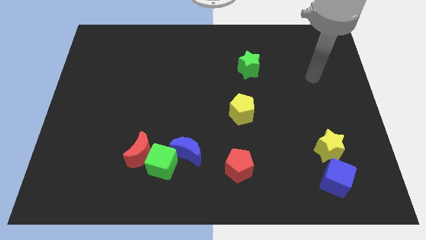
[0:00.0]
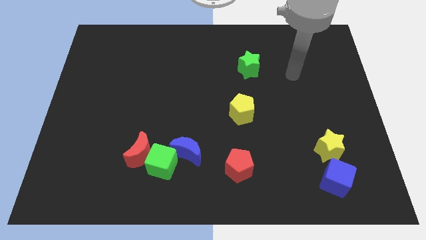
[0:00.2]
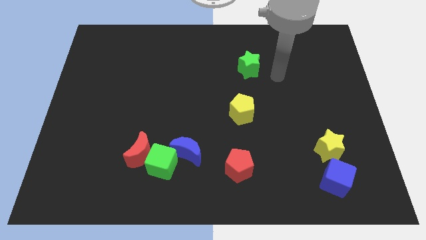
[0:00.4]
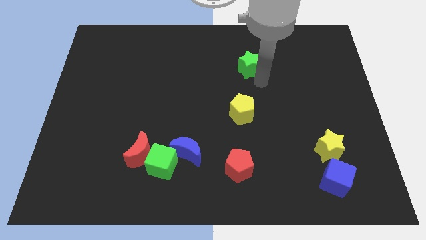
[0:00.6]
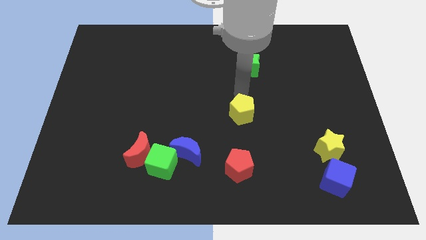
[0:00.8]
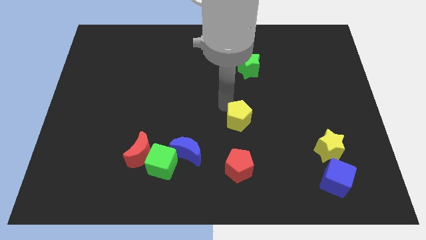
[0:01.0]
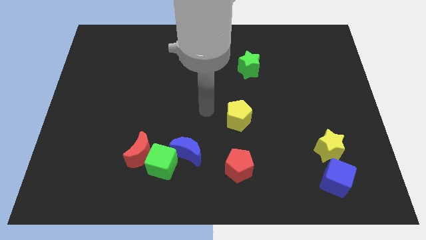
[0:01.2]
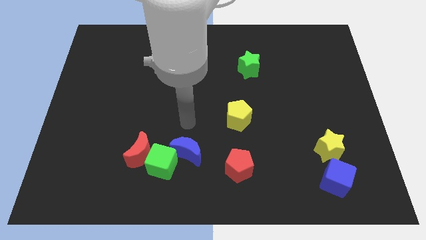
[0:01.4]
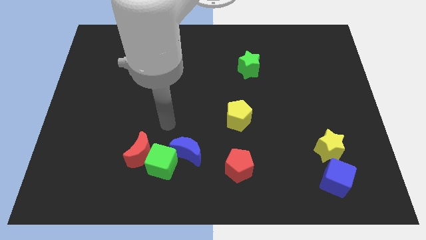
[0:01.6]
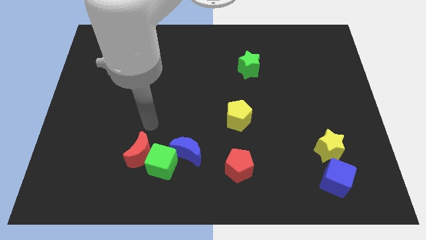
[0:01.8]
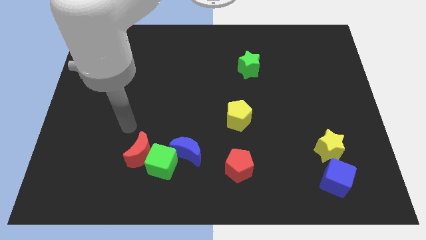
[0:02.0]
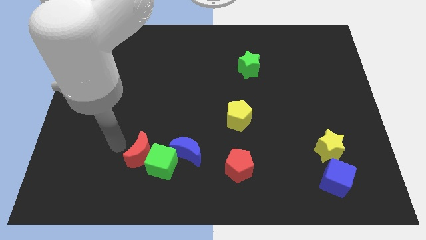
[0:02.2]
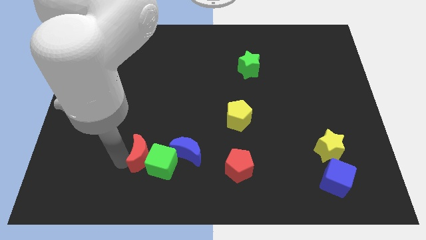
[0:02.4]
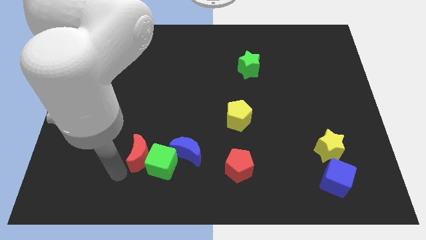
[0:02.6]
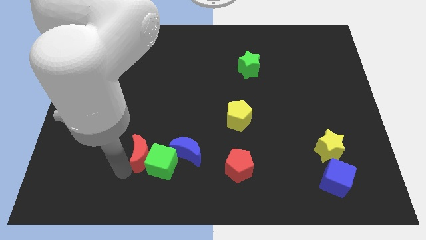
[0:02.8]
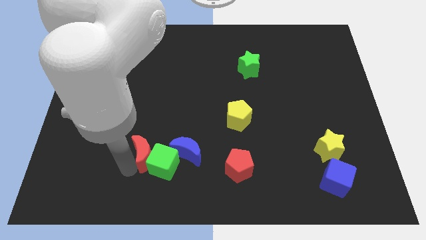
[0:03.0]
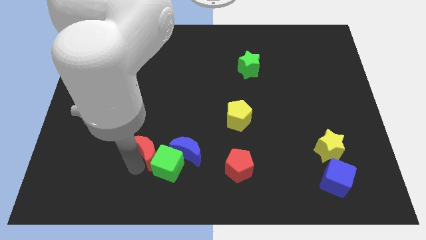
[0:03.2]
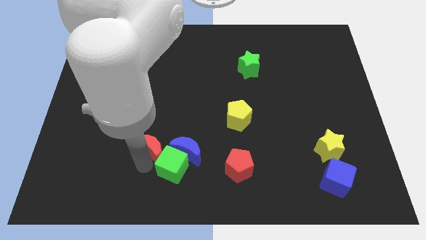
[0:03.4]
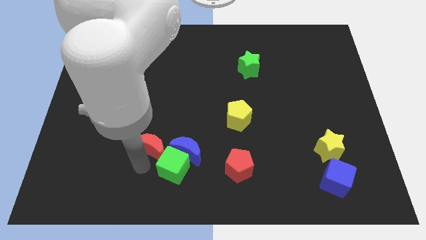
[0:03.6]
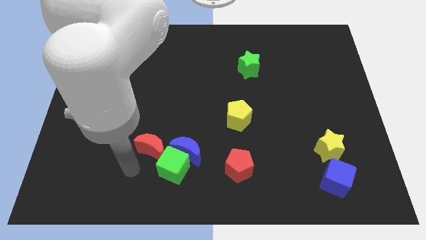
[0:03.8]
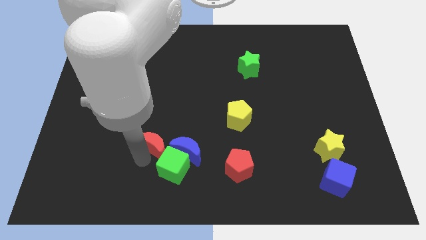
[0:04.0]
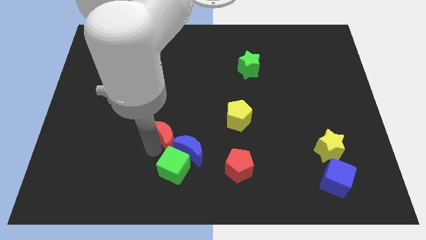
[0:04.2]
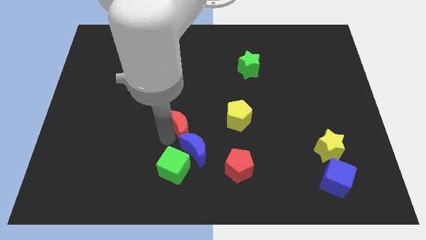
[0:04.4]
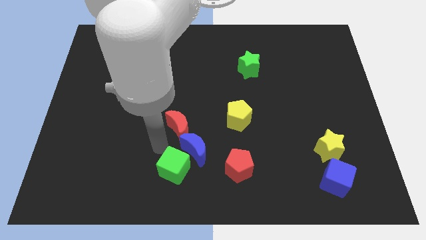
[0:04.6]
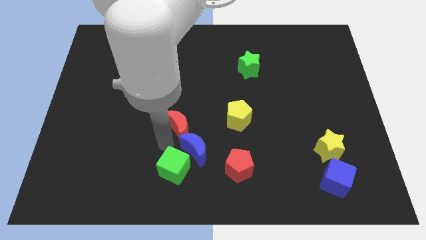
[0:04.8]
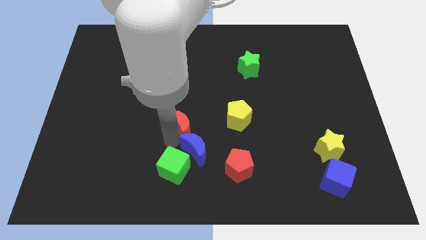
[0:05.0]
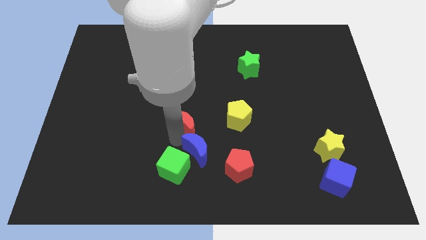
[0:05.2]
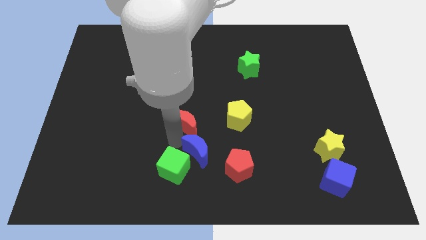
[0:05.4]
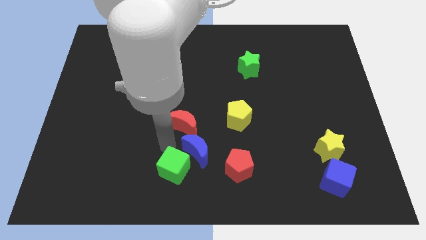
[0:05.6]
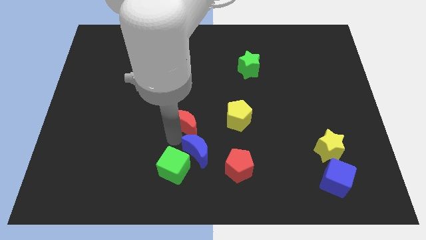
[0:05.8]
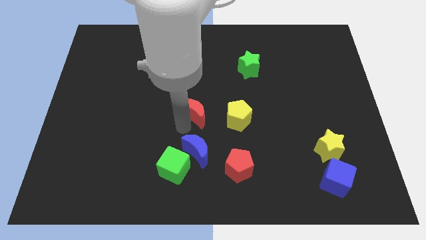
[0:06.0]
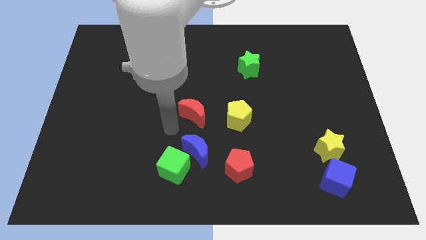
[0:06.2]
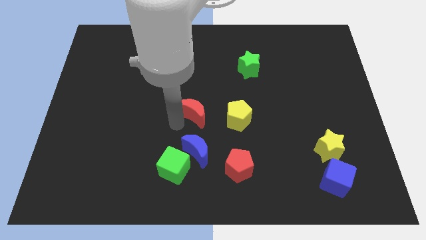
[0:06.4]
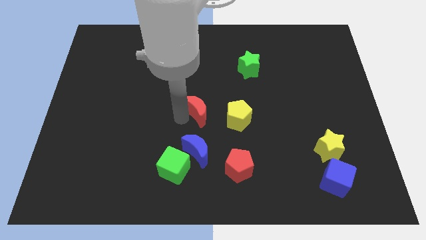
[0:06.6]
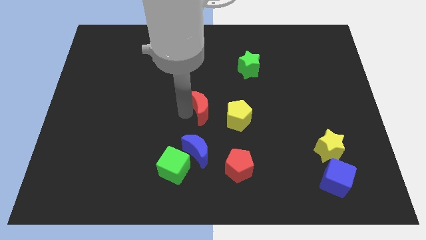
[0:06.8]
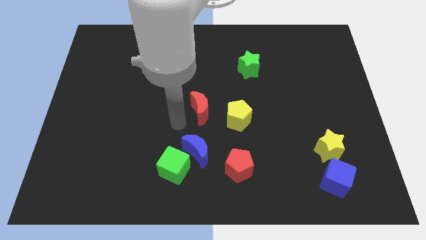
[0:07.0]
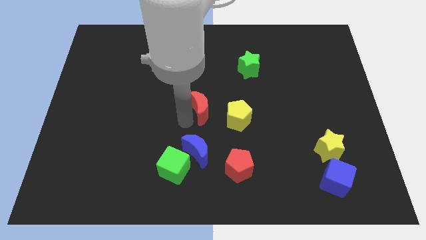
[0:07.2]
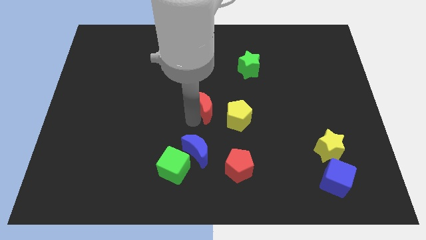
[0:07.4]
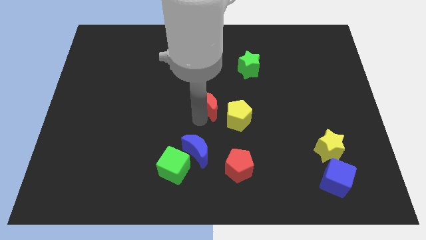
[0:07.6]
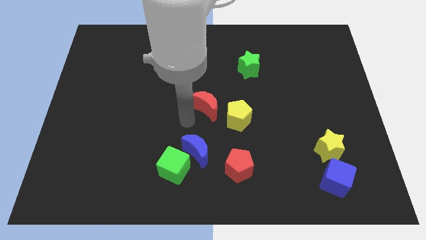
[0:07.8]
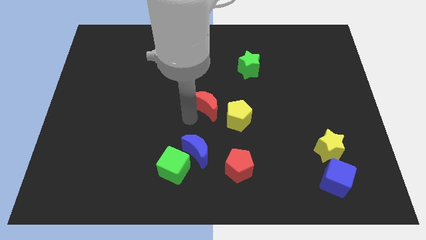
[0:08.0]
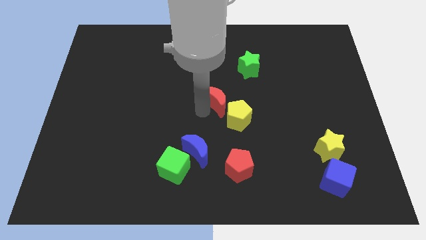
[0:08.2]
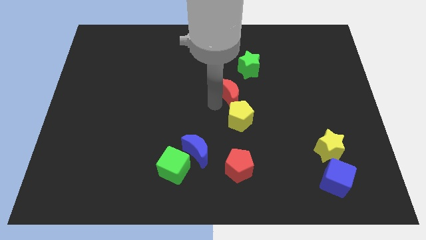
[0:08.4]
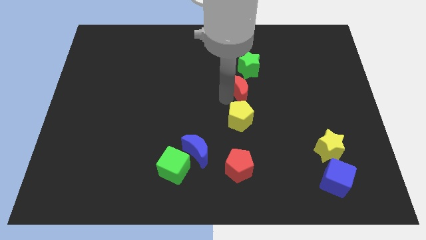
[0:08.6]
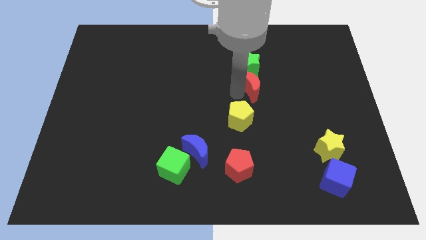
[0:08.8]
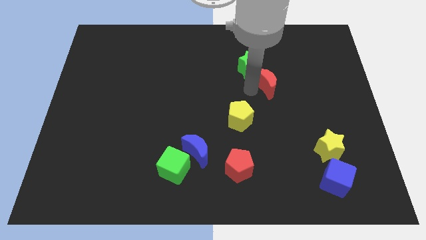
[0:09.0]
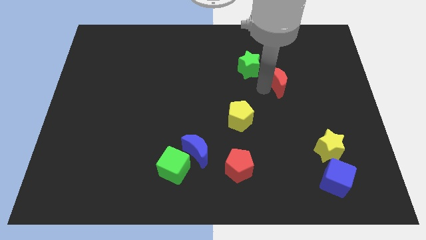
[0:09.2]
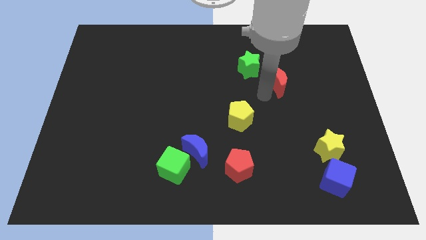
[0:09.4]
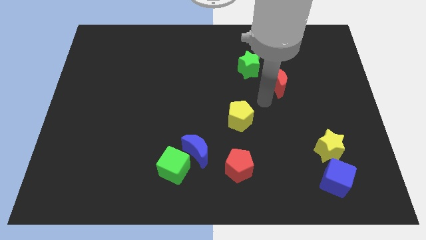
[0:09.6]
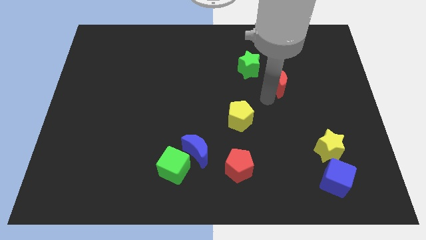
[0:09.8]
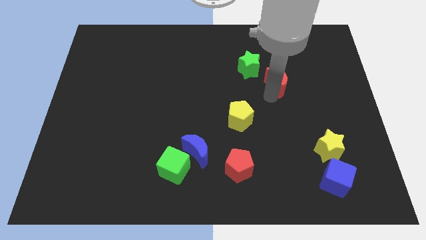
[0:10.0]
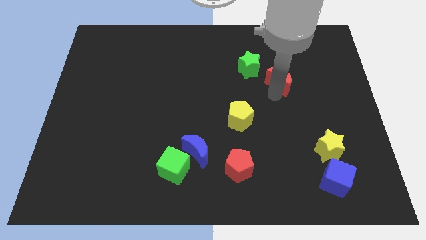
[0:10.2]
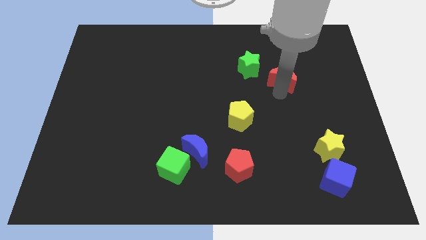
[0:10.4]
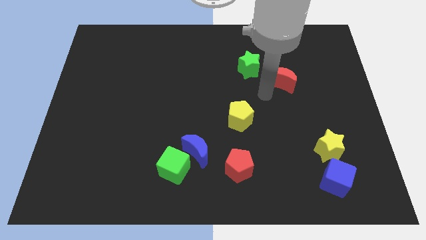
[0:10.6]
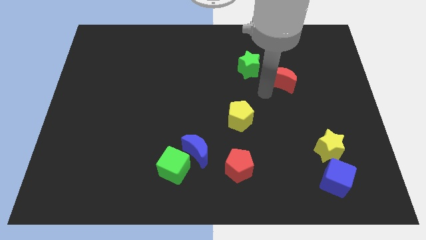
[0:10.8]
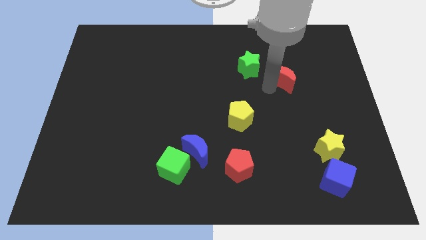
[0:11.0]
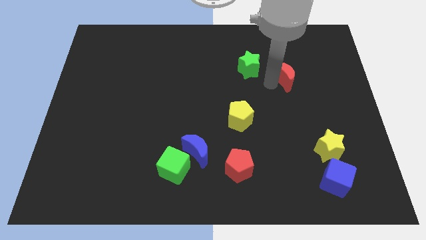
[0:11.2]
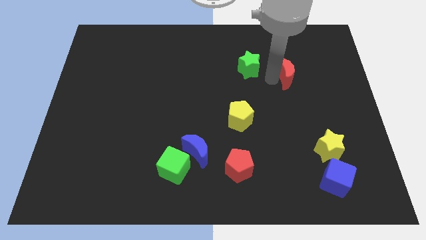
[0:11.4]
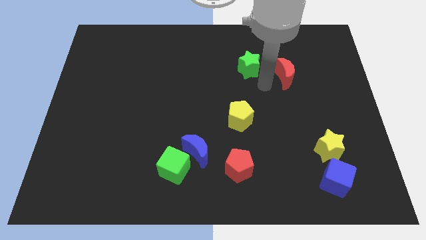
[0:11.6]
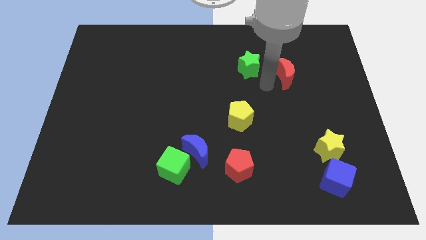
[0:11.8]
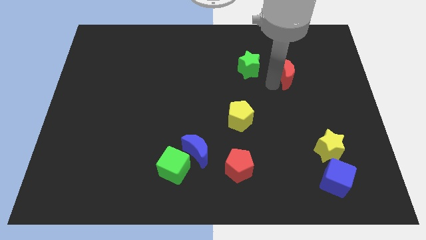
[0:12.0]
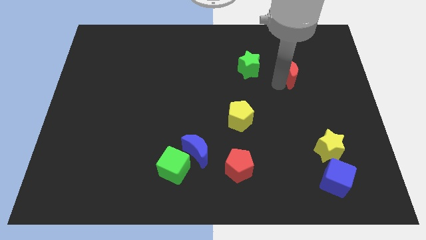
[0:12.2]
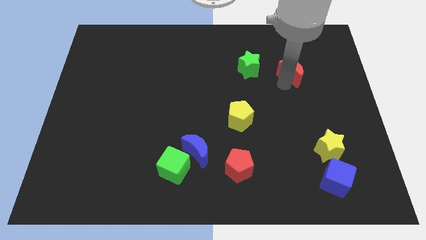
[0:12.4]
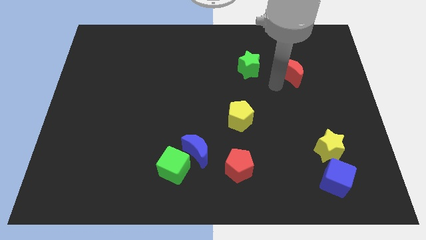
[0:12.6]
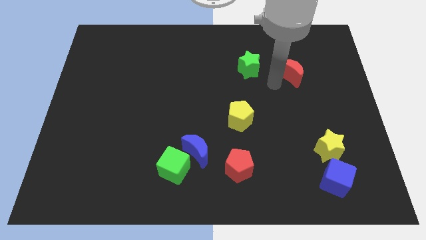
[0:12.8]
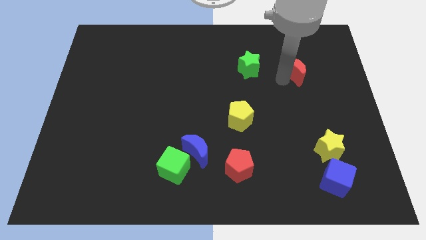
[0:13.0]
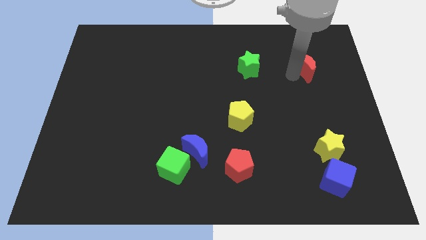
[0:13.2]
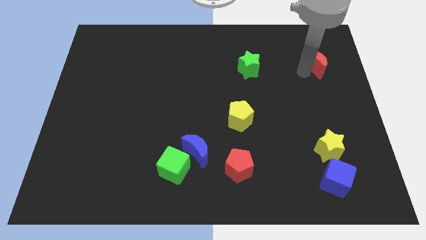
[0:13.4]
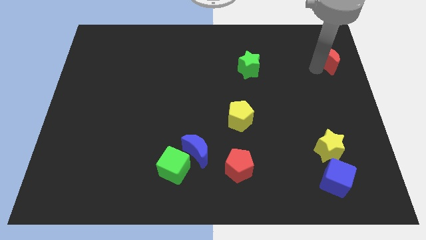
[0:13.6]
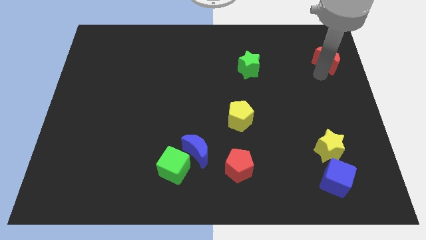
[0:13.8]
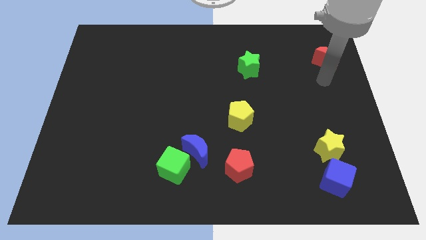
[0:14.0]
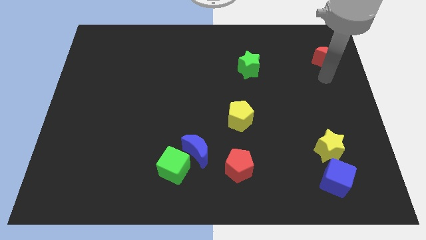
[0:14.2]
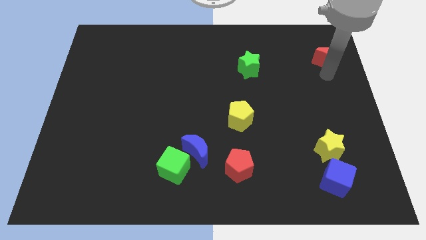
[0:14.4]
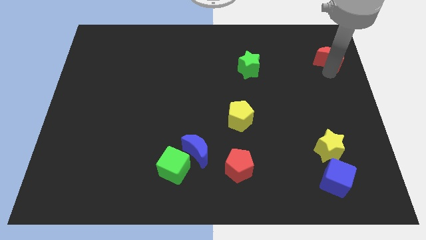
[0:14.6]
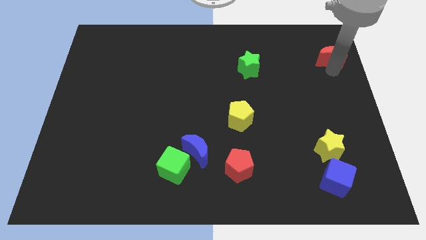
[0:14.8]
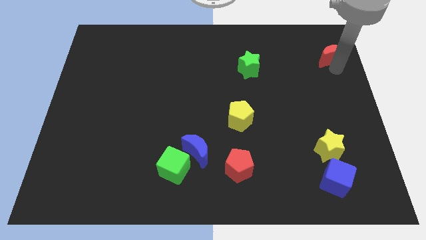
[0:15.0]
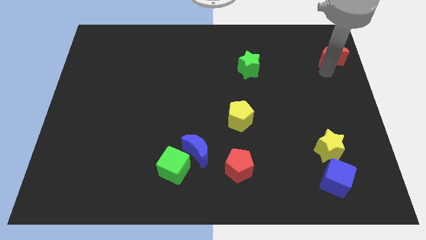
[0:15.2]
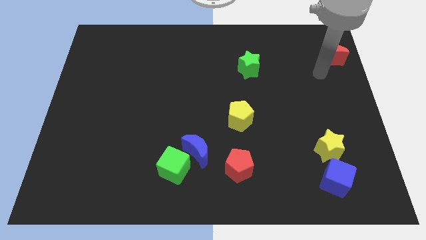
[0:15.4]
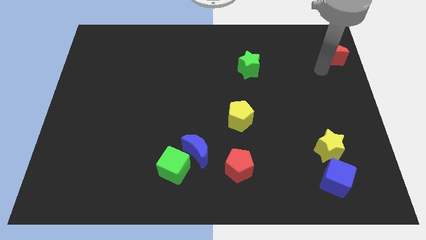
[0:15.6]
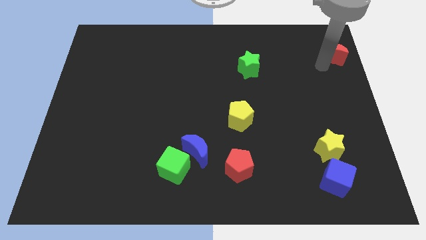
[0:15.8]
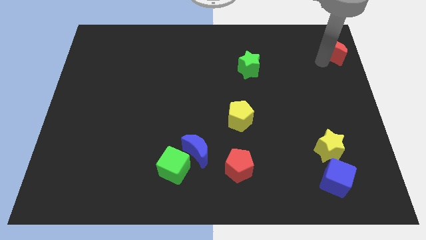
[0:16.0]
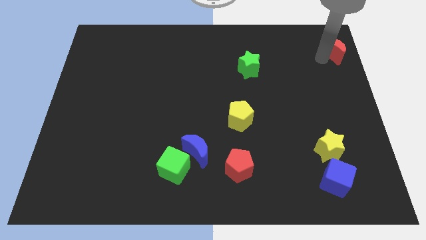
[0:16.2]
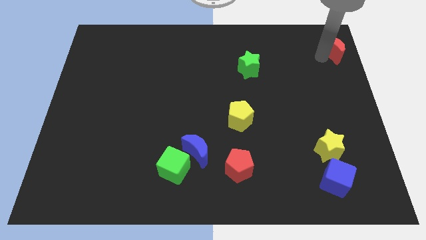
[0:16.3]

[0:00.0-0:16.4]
push the red moon to the top right
